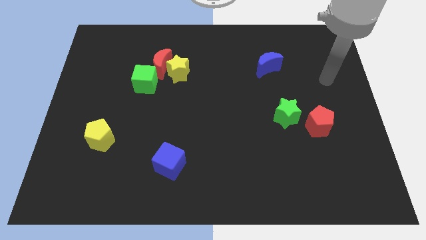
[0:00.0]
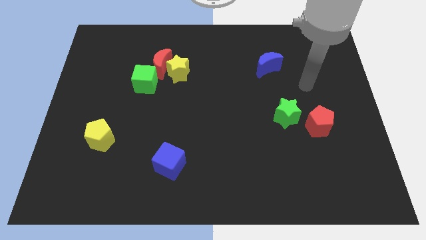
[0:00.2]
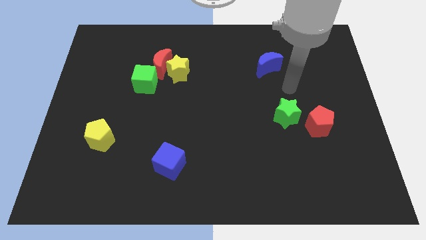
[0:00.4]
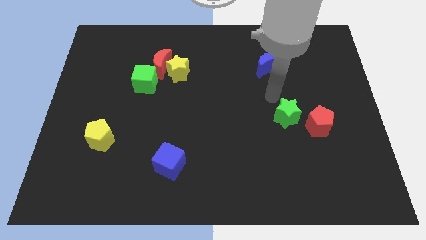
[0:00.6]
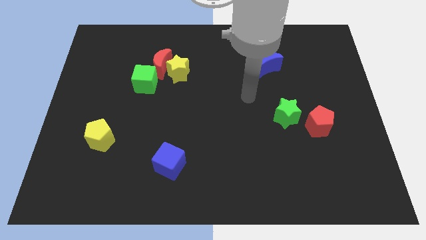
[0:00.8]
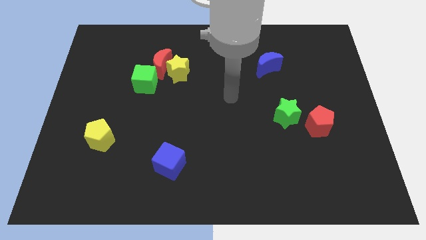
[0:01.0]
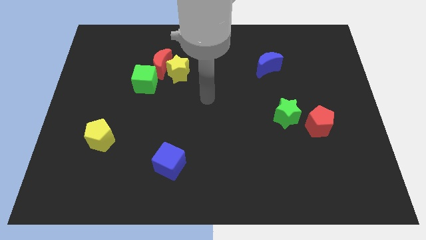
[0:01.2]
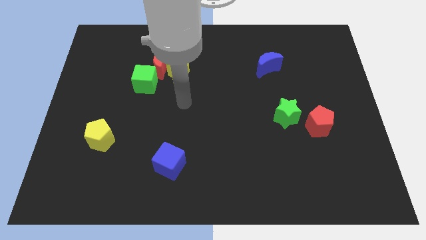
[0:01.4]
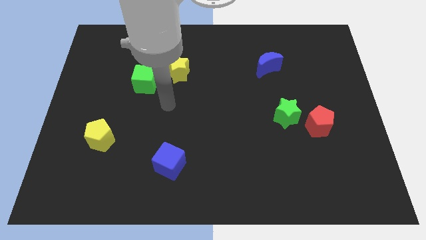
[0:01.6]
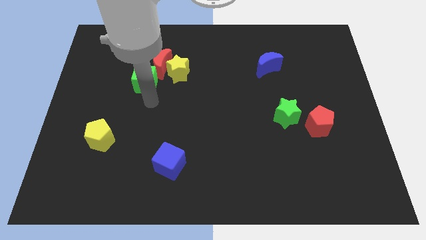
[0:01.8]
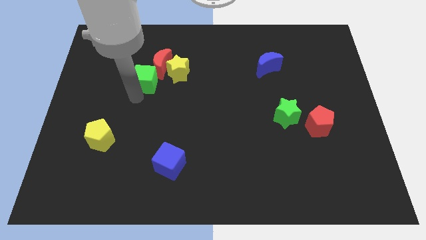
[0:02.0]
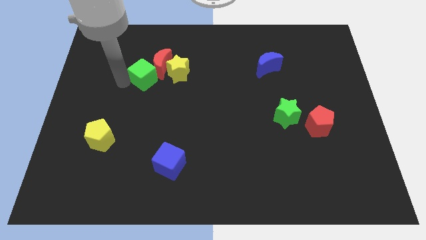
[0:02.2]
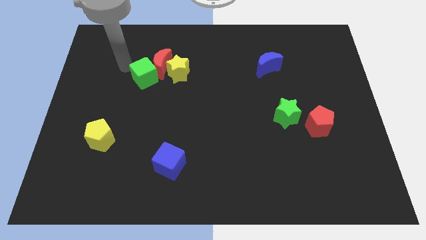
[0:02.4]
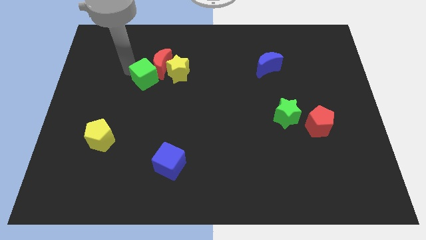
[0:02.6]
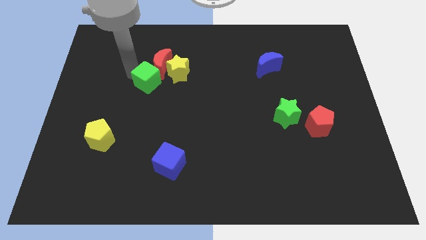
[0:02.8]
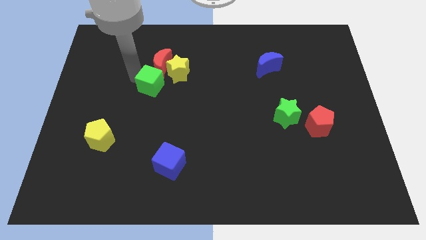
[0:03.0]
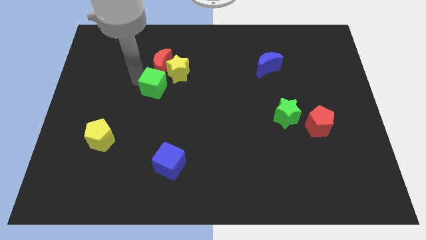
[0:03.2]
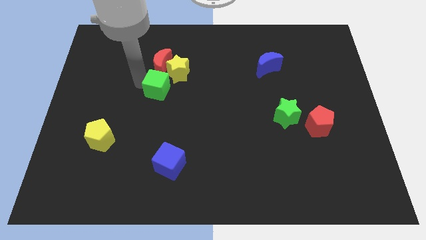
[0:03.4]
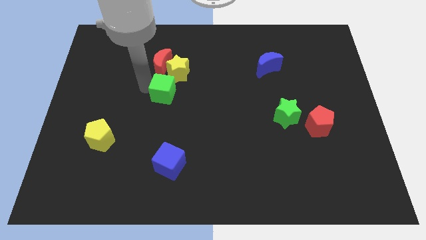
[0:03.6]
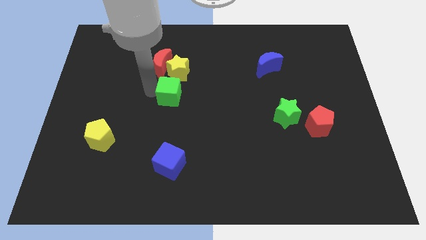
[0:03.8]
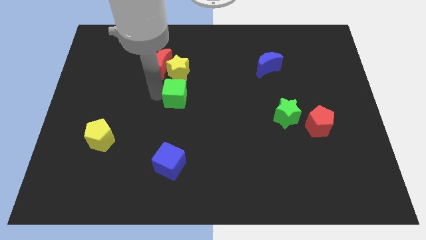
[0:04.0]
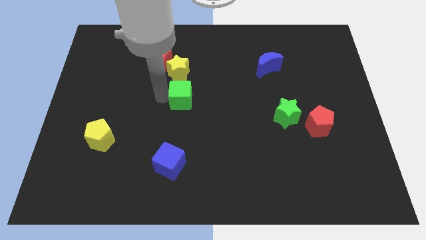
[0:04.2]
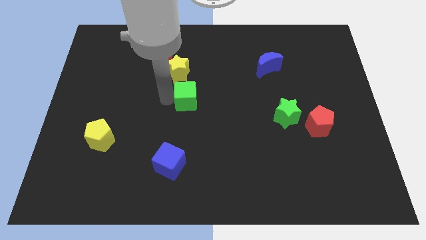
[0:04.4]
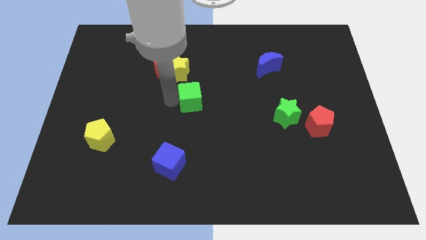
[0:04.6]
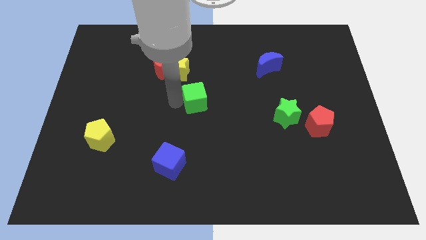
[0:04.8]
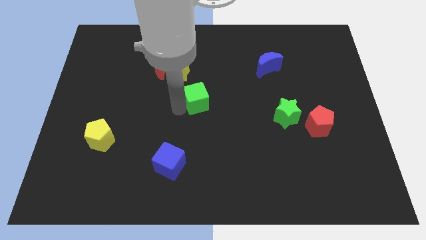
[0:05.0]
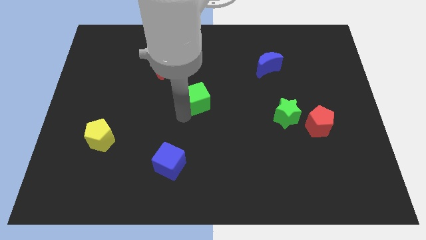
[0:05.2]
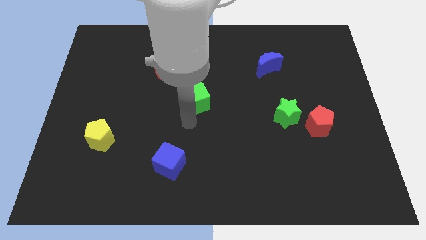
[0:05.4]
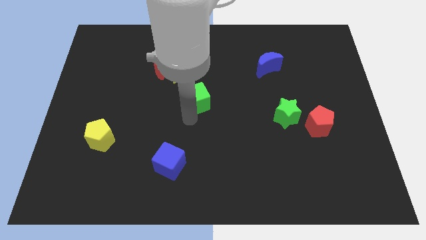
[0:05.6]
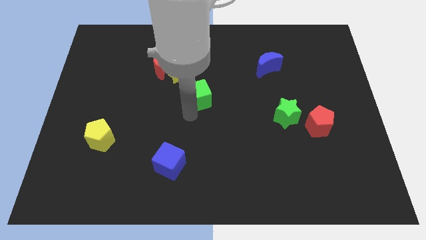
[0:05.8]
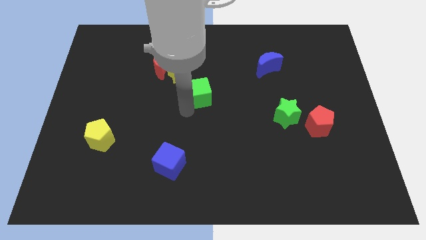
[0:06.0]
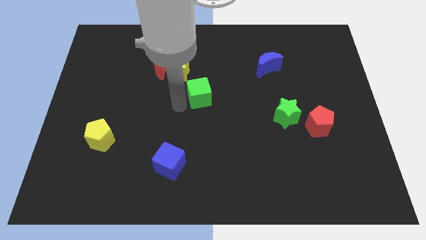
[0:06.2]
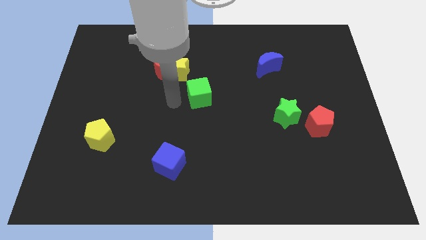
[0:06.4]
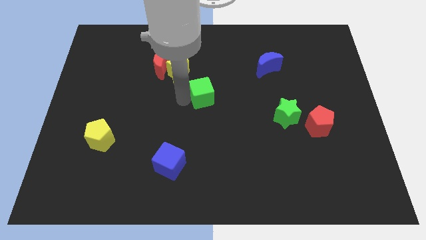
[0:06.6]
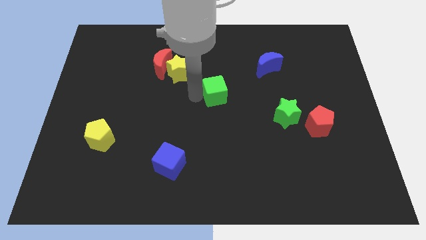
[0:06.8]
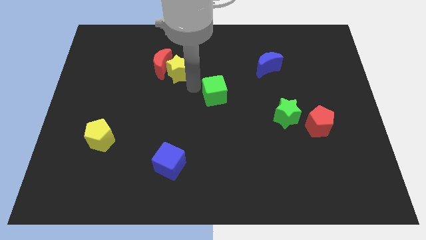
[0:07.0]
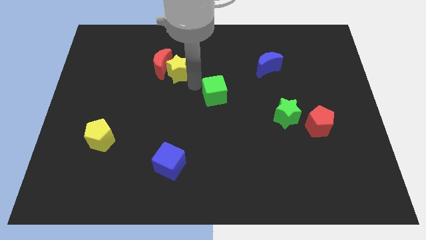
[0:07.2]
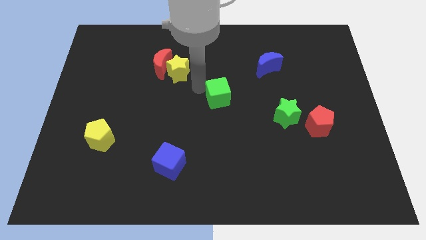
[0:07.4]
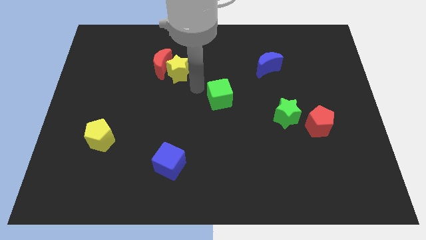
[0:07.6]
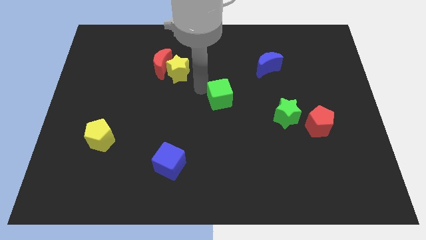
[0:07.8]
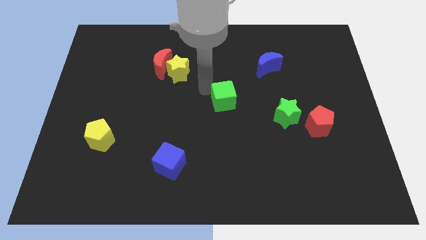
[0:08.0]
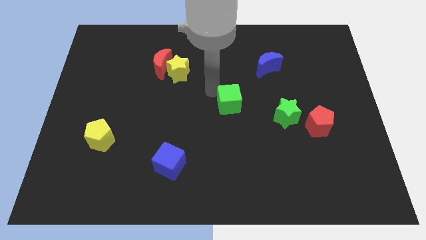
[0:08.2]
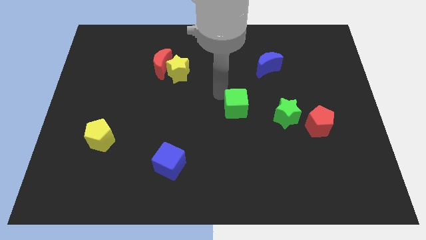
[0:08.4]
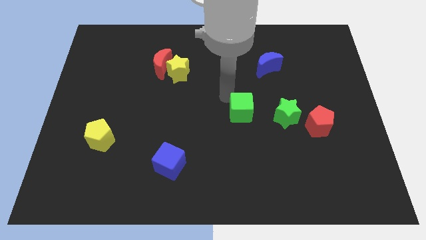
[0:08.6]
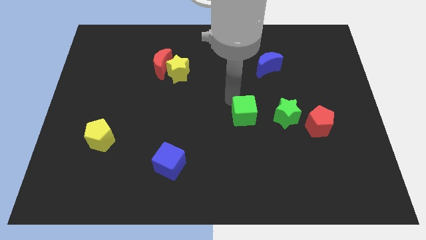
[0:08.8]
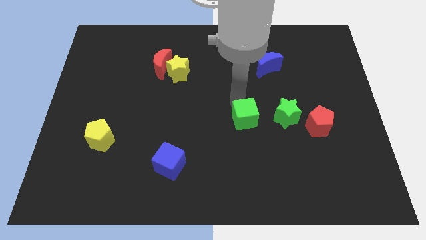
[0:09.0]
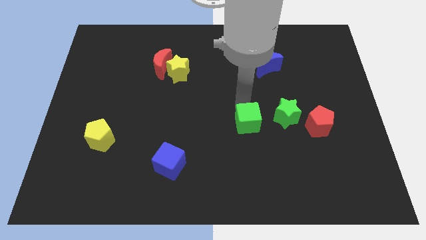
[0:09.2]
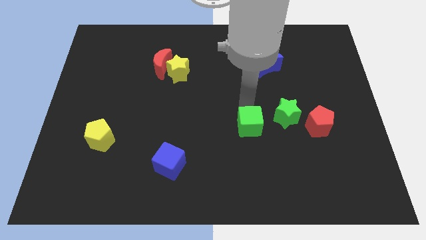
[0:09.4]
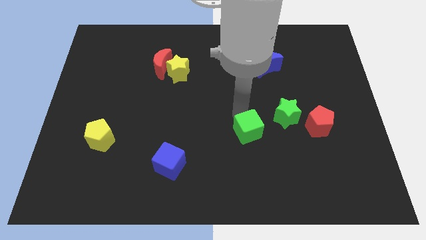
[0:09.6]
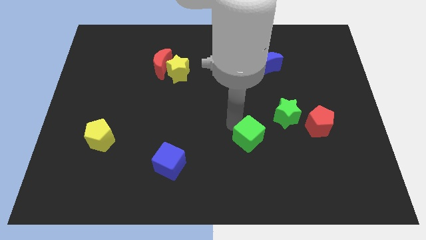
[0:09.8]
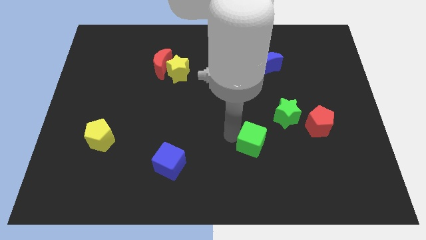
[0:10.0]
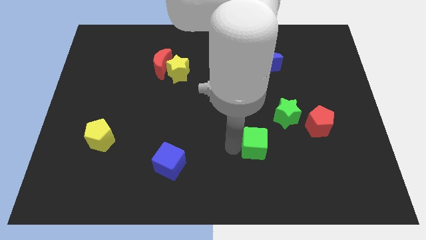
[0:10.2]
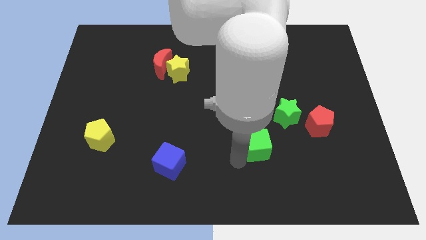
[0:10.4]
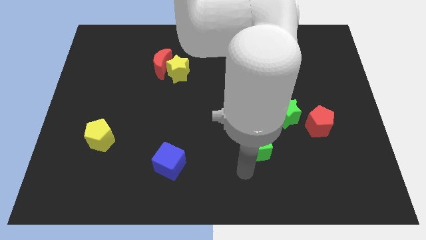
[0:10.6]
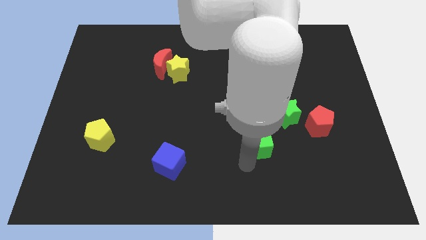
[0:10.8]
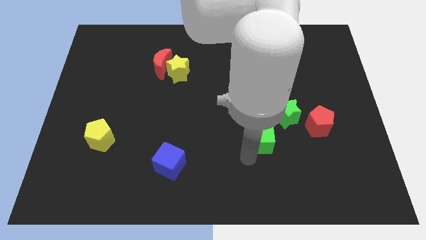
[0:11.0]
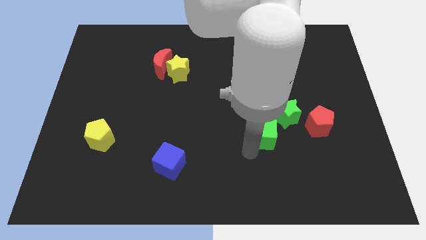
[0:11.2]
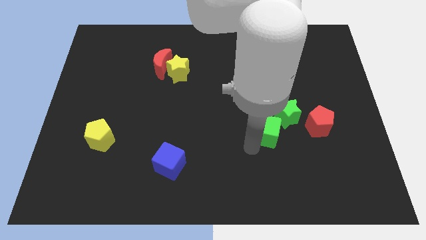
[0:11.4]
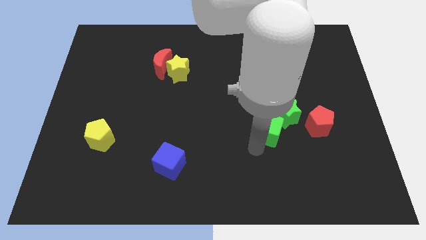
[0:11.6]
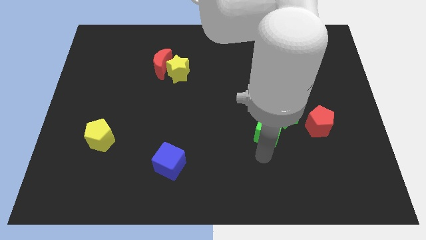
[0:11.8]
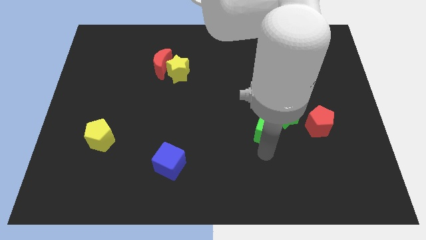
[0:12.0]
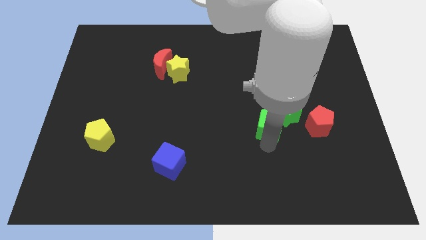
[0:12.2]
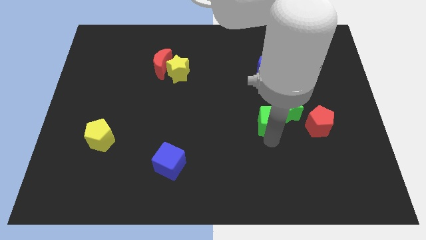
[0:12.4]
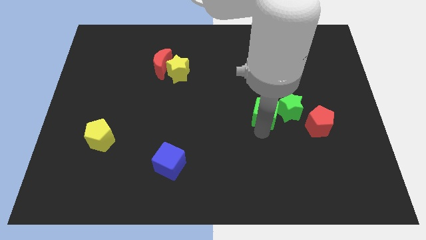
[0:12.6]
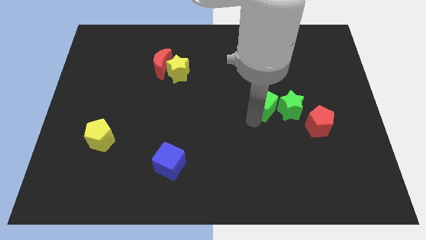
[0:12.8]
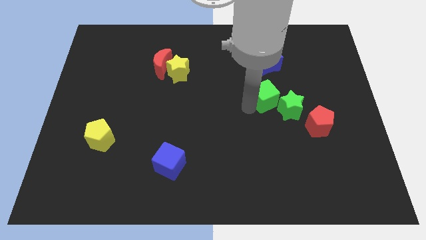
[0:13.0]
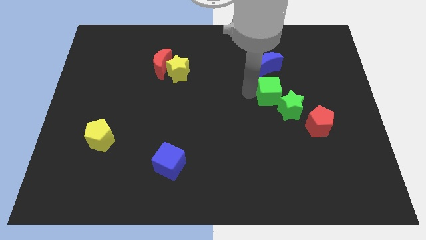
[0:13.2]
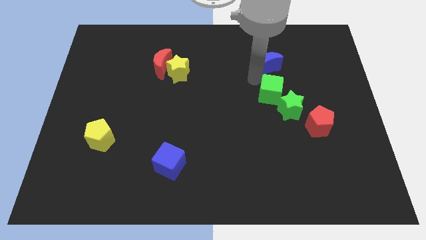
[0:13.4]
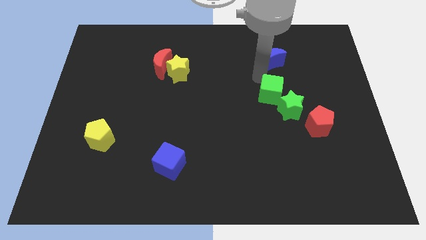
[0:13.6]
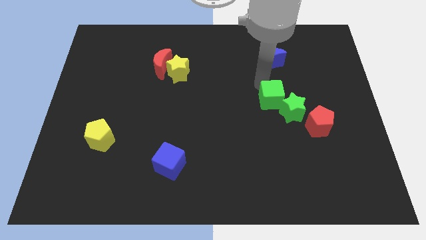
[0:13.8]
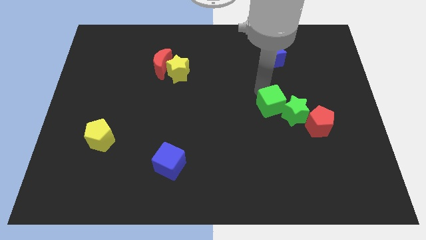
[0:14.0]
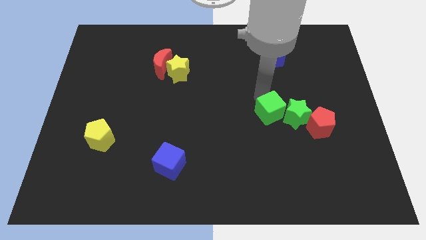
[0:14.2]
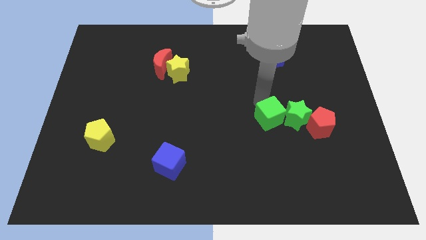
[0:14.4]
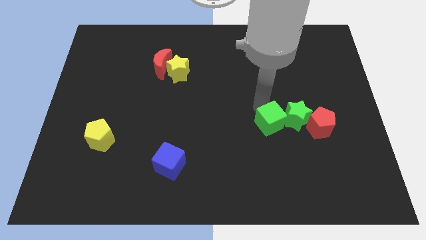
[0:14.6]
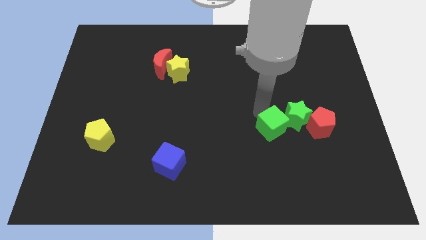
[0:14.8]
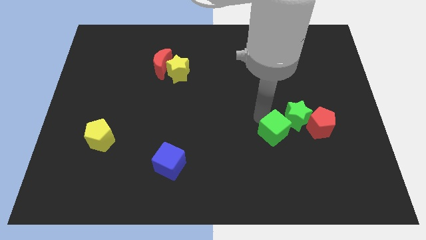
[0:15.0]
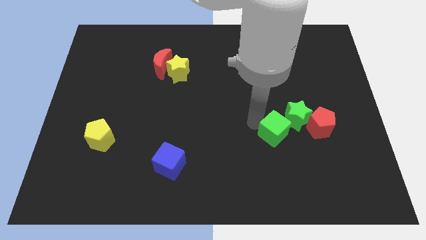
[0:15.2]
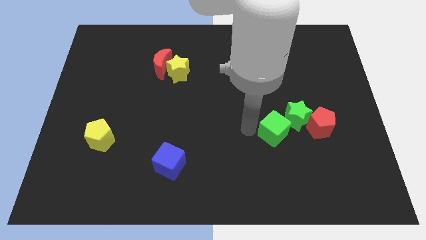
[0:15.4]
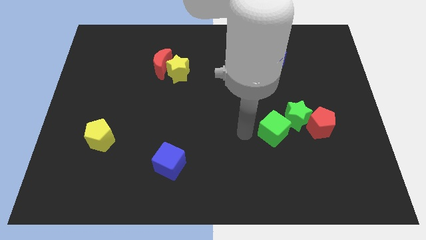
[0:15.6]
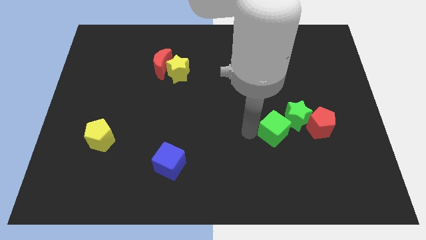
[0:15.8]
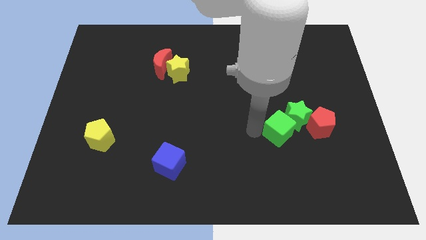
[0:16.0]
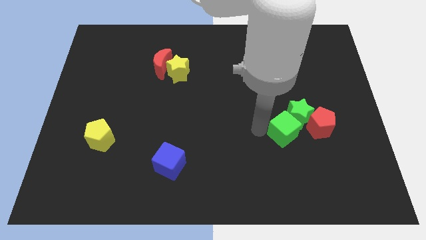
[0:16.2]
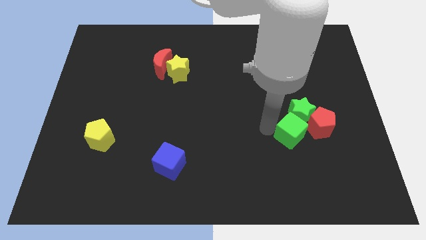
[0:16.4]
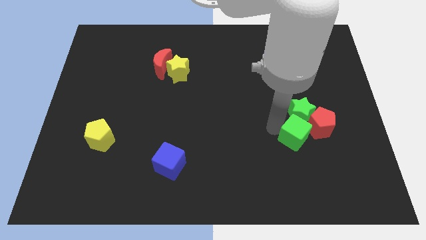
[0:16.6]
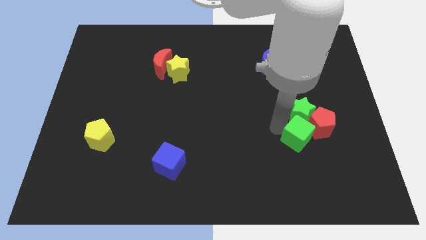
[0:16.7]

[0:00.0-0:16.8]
put the green cube next to the red pentagon
